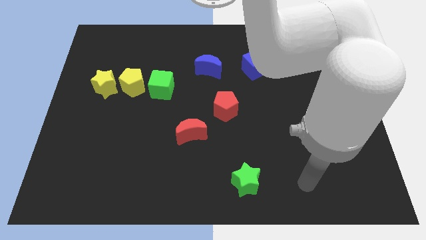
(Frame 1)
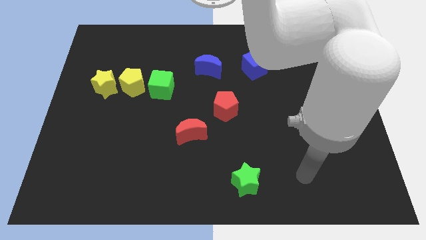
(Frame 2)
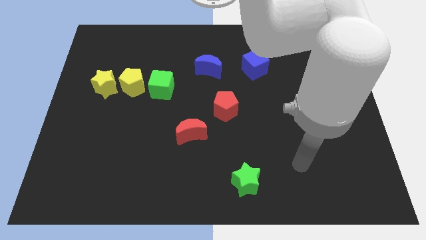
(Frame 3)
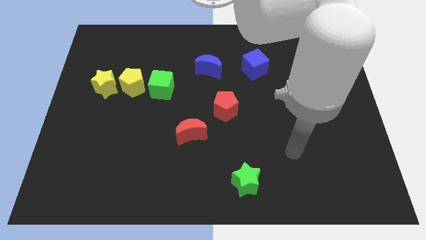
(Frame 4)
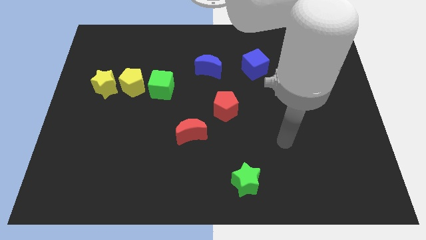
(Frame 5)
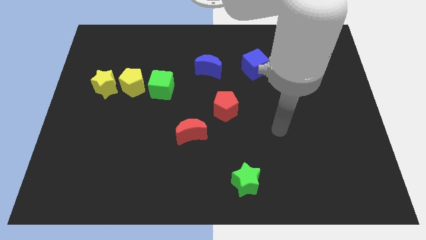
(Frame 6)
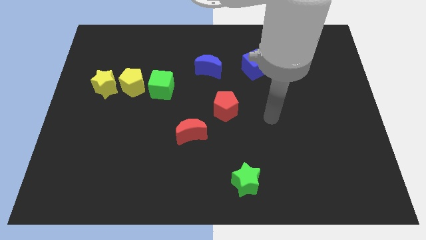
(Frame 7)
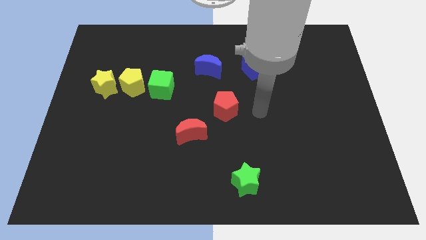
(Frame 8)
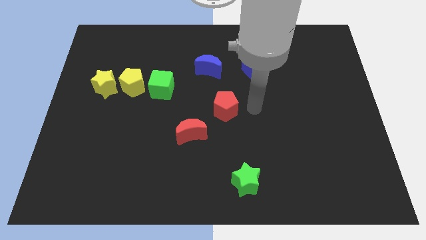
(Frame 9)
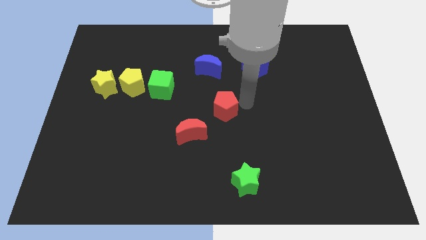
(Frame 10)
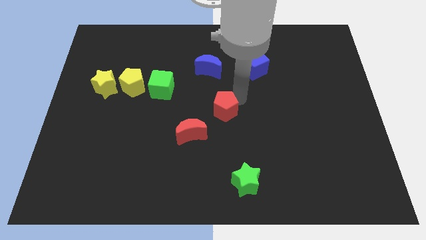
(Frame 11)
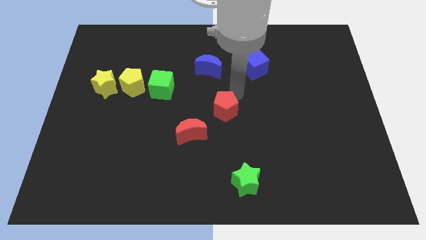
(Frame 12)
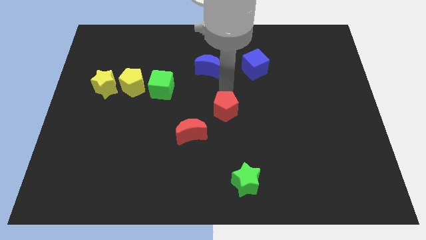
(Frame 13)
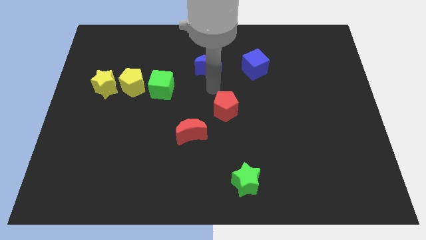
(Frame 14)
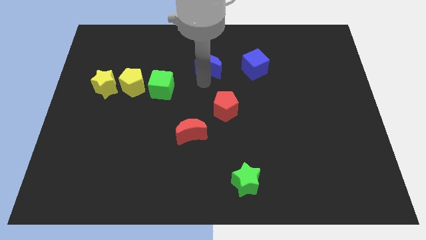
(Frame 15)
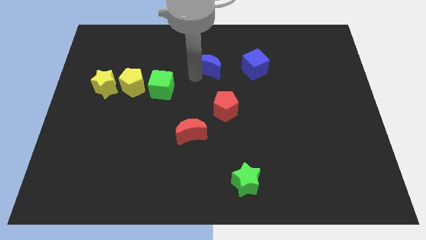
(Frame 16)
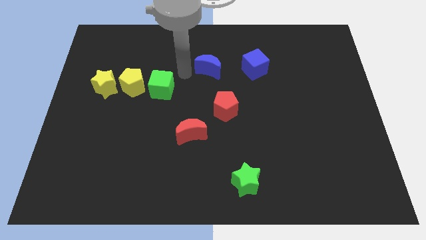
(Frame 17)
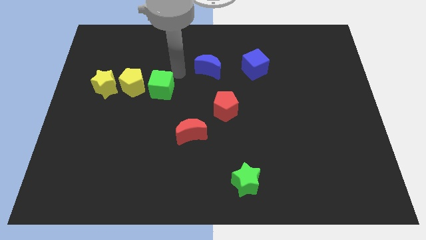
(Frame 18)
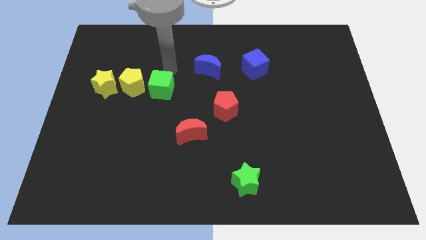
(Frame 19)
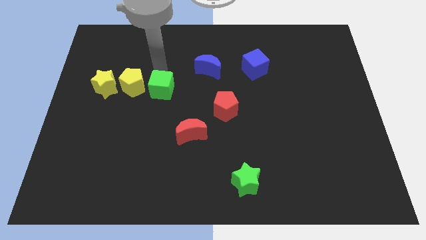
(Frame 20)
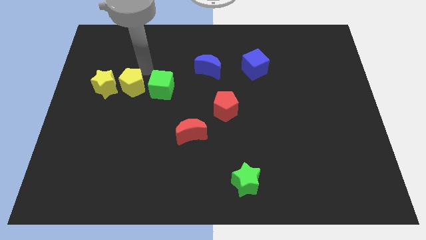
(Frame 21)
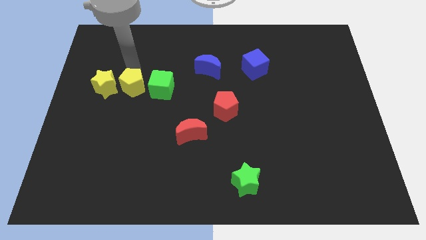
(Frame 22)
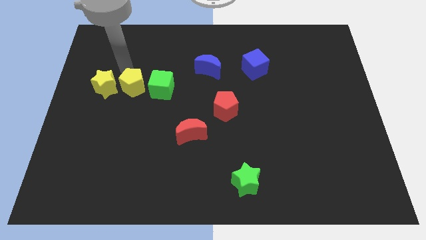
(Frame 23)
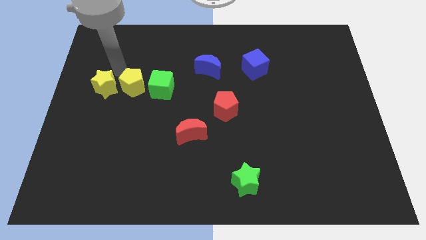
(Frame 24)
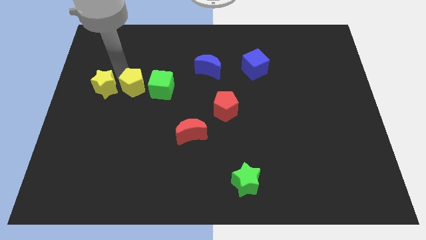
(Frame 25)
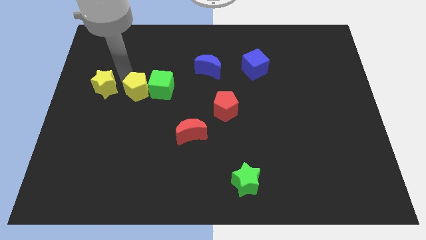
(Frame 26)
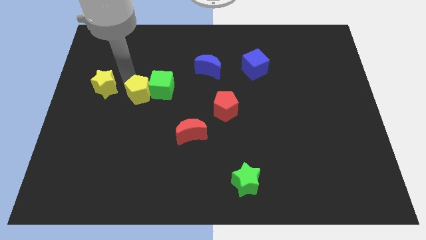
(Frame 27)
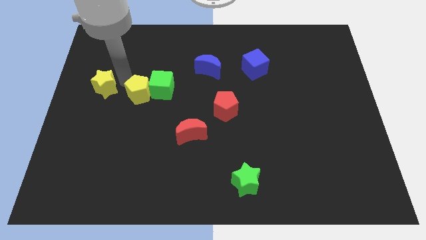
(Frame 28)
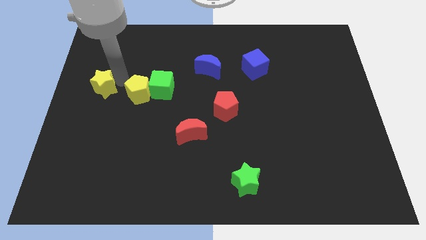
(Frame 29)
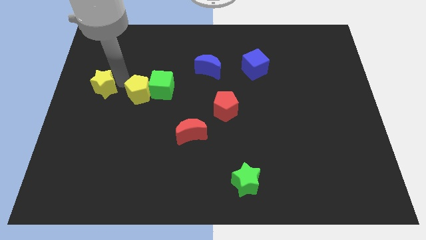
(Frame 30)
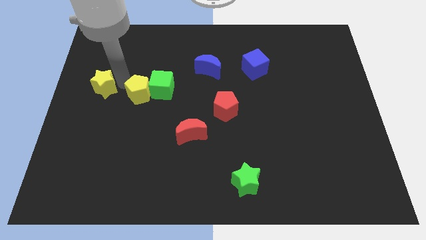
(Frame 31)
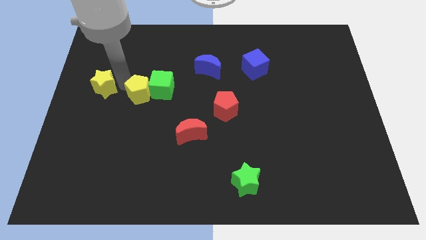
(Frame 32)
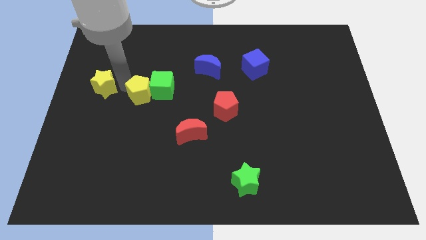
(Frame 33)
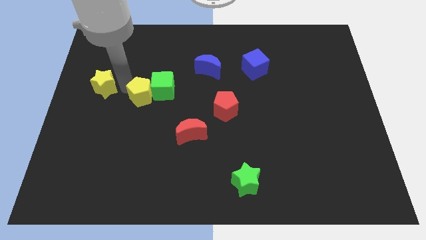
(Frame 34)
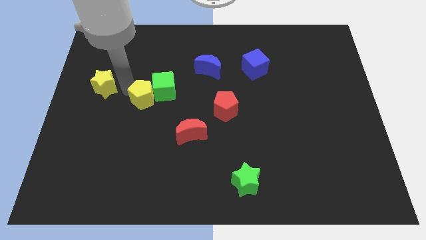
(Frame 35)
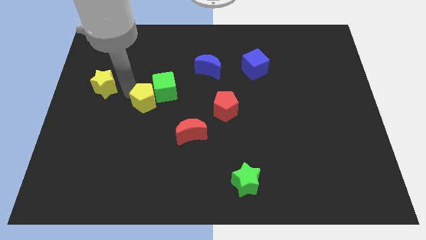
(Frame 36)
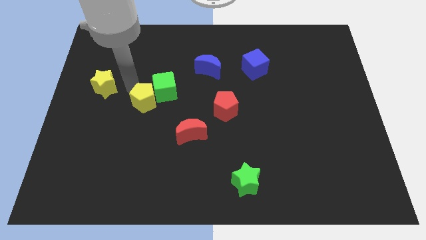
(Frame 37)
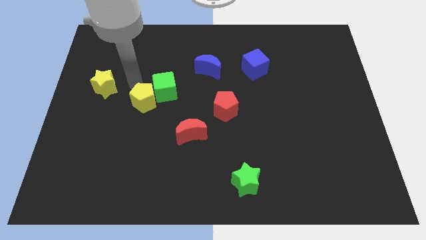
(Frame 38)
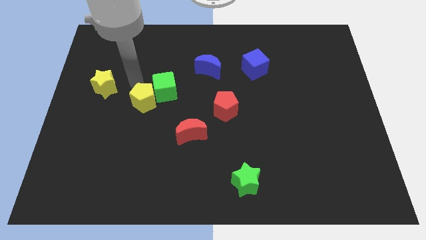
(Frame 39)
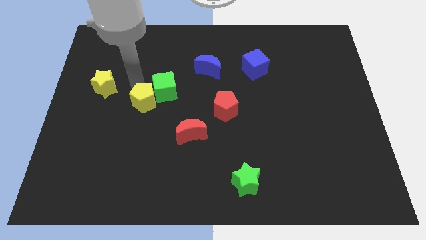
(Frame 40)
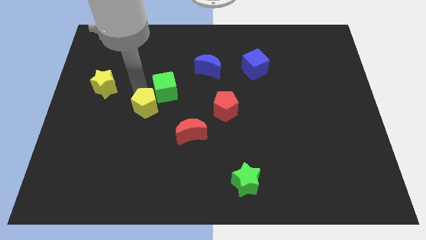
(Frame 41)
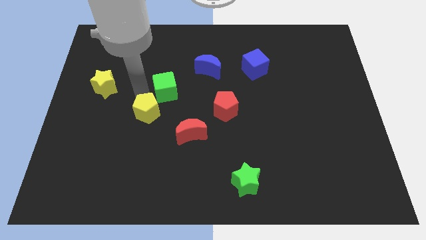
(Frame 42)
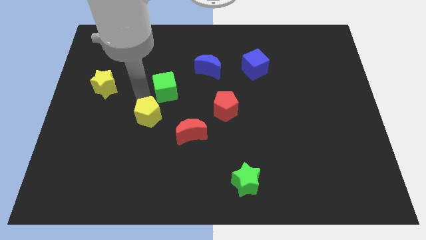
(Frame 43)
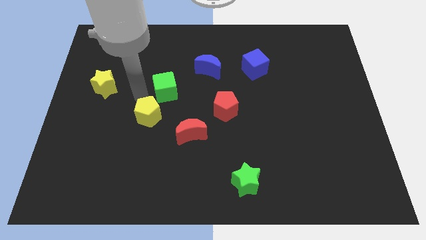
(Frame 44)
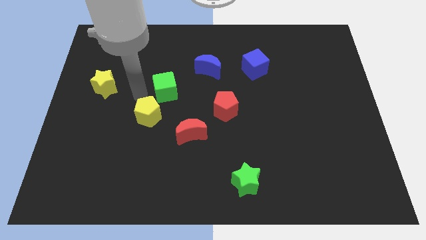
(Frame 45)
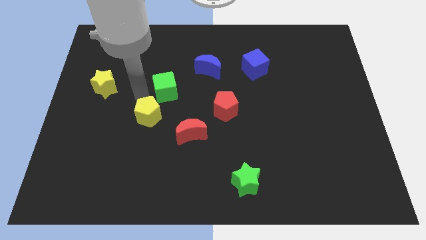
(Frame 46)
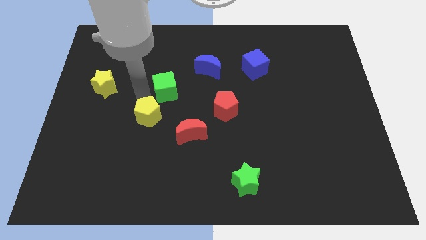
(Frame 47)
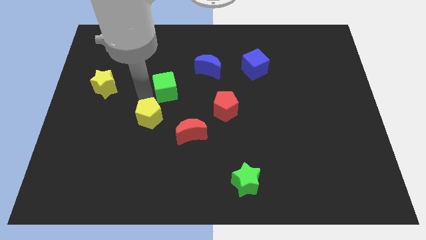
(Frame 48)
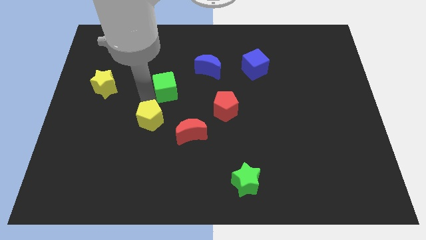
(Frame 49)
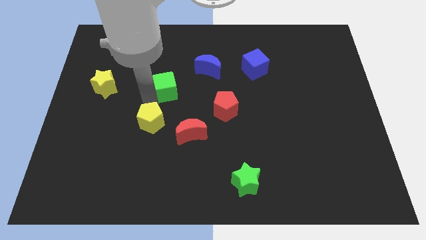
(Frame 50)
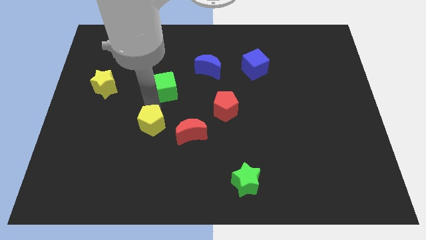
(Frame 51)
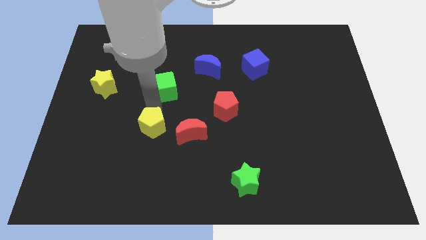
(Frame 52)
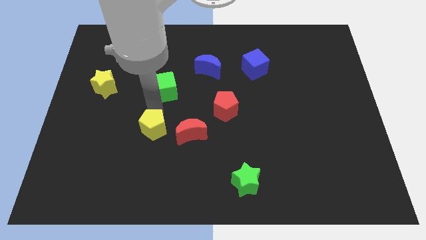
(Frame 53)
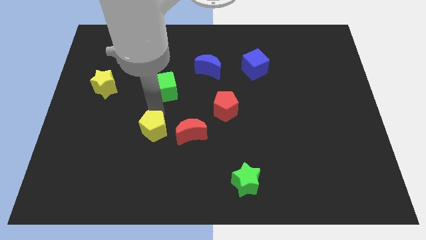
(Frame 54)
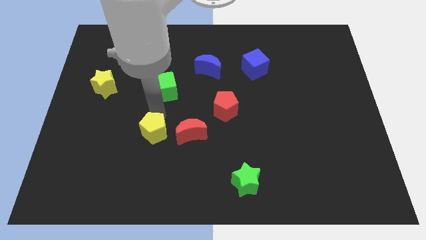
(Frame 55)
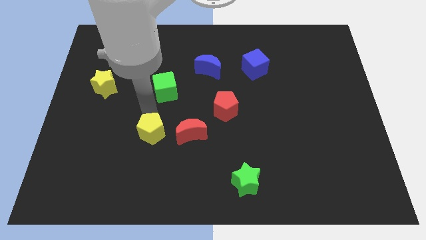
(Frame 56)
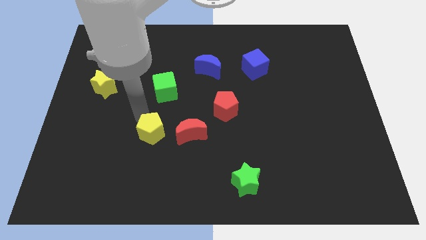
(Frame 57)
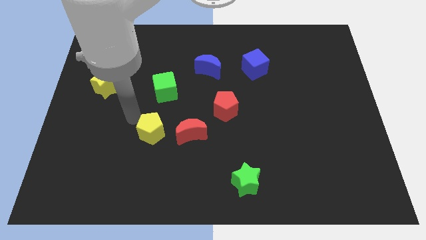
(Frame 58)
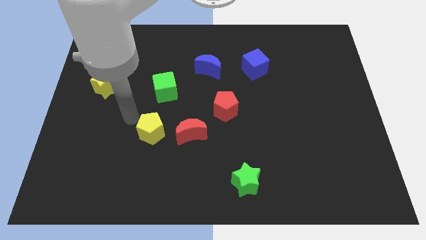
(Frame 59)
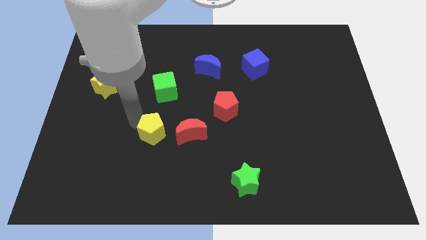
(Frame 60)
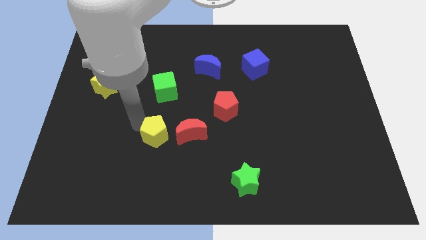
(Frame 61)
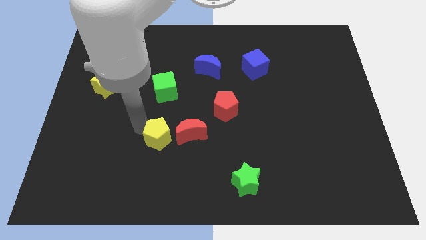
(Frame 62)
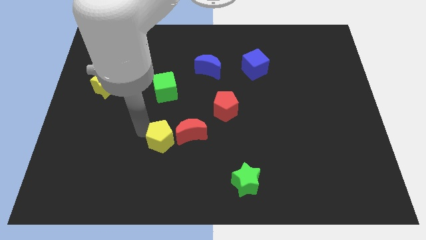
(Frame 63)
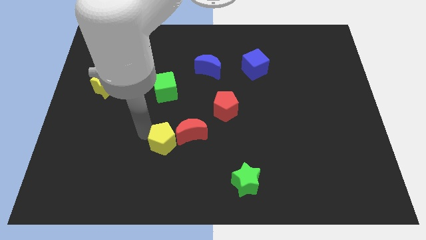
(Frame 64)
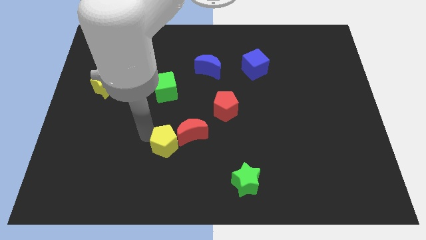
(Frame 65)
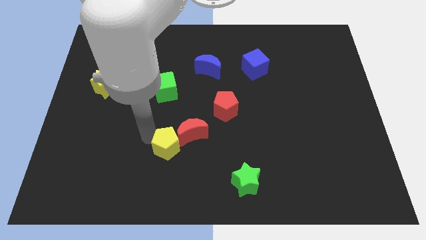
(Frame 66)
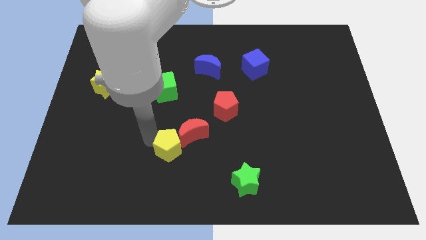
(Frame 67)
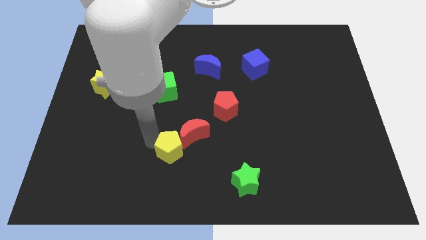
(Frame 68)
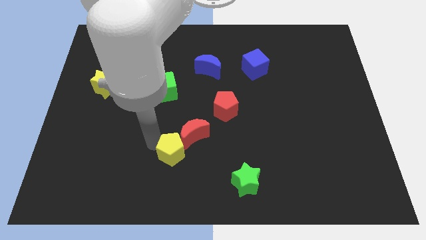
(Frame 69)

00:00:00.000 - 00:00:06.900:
move the yellow pentagon diagonally downwards and right

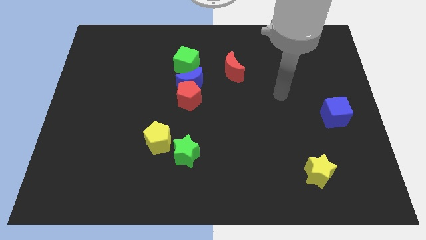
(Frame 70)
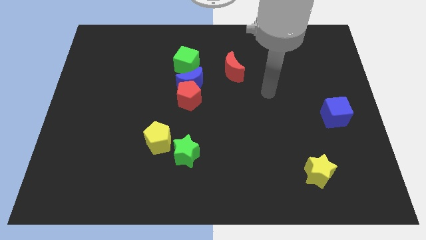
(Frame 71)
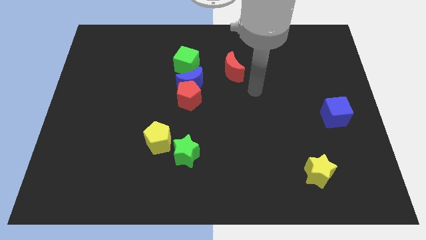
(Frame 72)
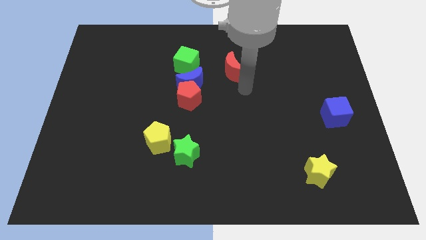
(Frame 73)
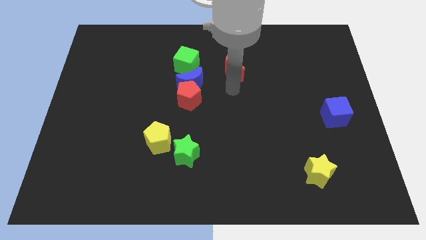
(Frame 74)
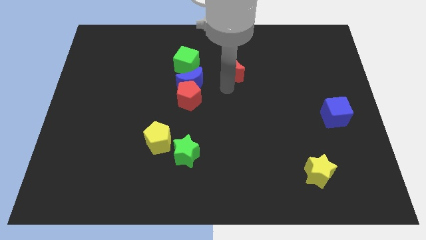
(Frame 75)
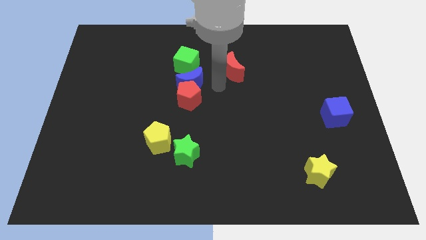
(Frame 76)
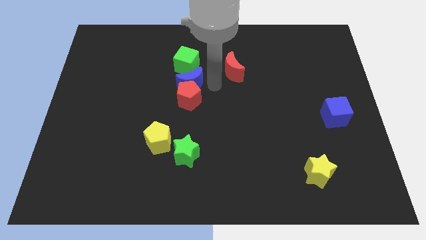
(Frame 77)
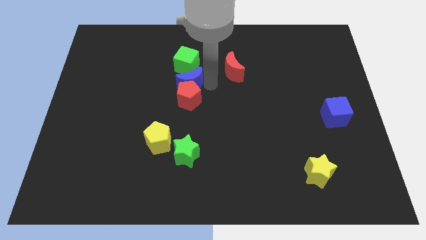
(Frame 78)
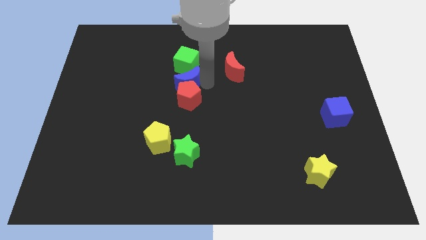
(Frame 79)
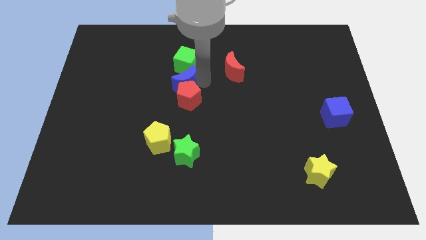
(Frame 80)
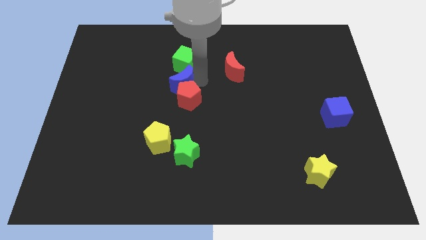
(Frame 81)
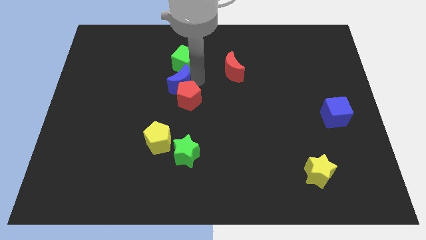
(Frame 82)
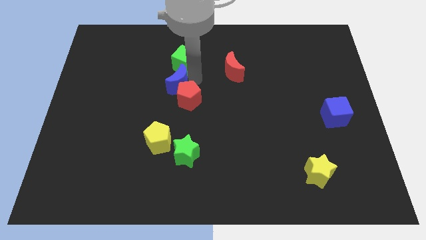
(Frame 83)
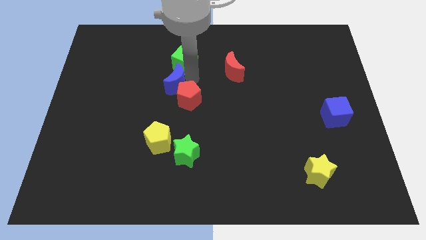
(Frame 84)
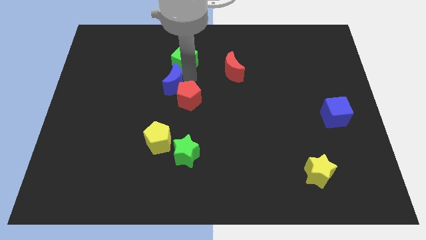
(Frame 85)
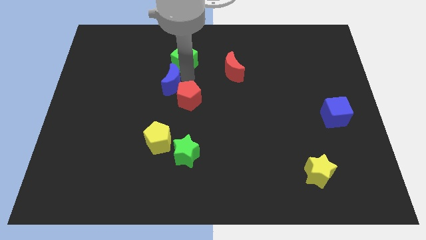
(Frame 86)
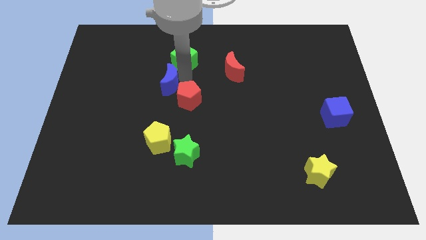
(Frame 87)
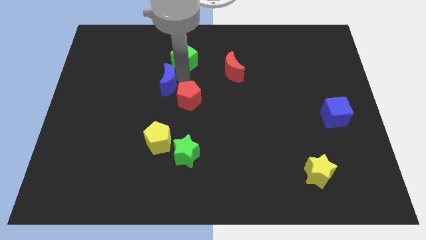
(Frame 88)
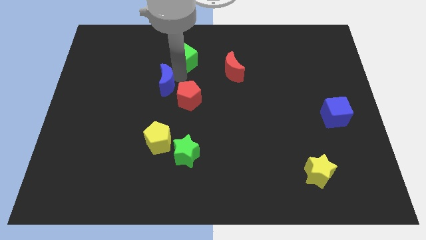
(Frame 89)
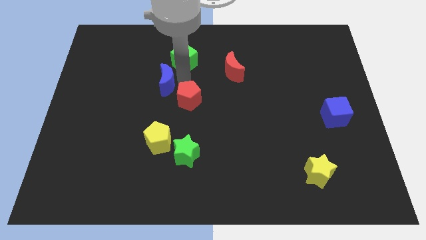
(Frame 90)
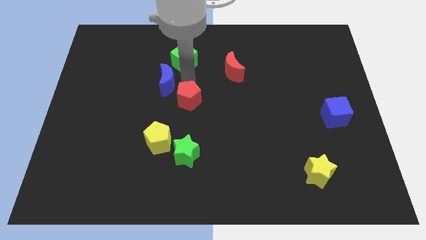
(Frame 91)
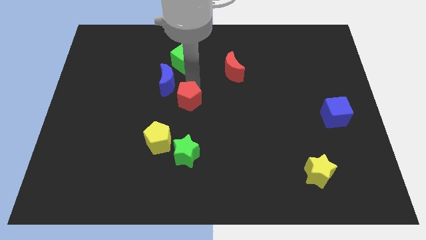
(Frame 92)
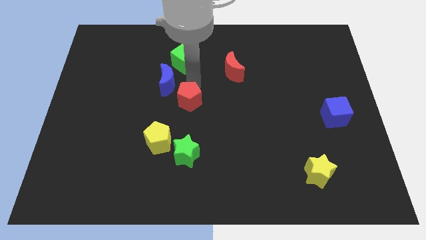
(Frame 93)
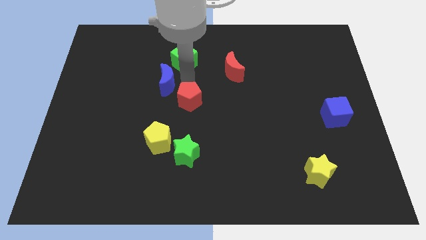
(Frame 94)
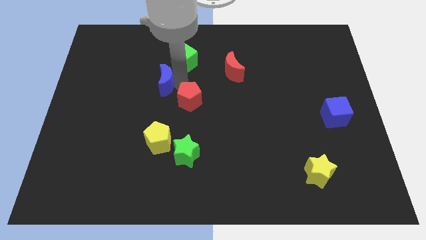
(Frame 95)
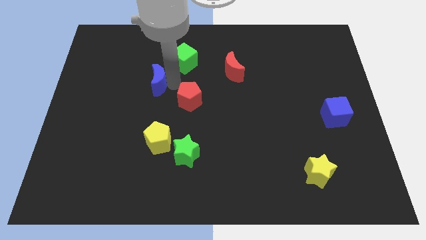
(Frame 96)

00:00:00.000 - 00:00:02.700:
slightly slide the blue moon to the left
